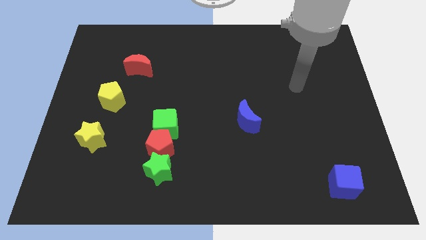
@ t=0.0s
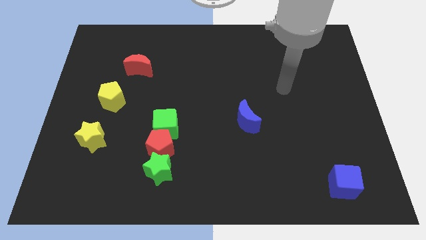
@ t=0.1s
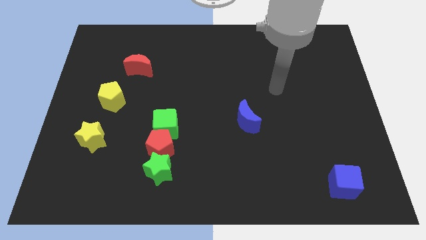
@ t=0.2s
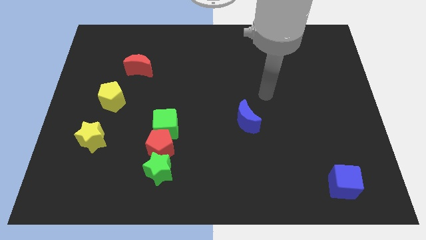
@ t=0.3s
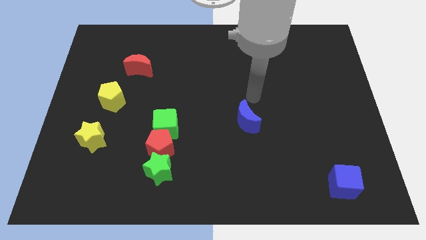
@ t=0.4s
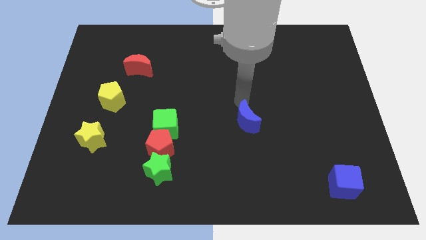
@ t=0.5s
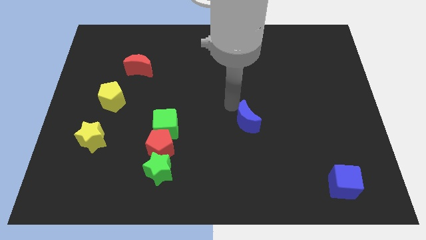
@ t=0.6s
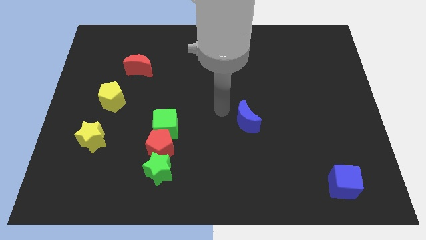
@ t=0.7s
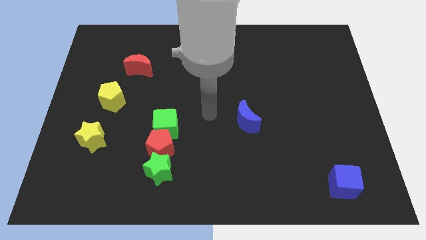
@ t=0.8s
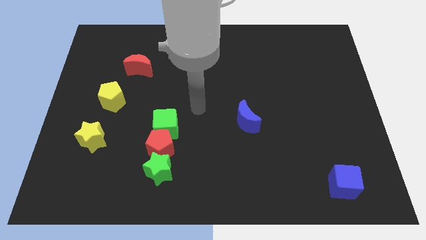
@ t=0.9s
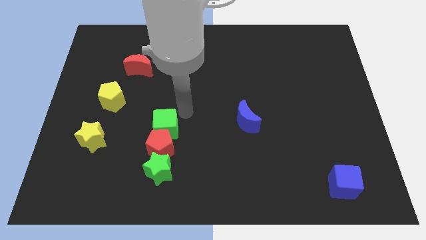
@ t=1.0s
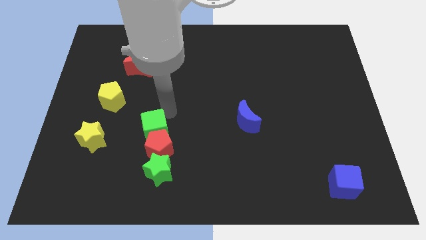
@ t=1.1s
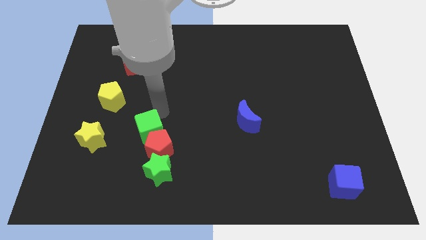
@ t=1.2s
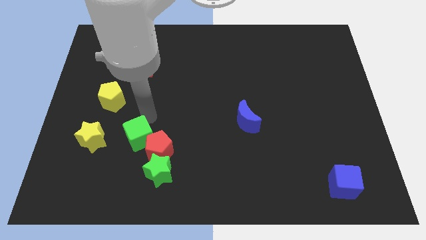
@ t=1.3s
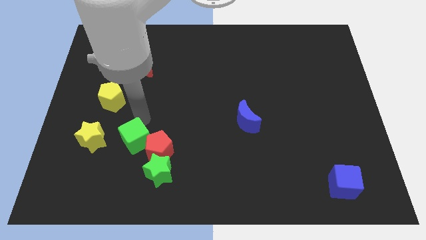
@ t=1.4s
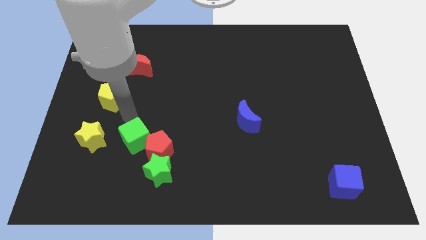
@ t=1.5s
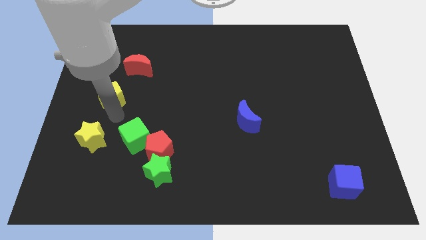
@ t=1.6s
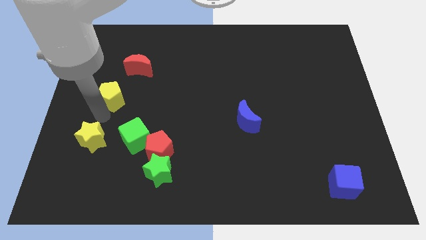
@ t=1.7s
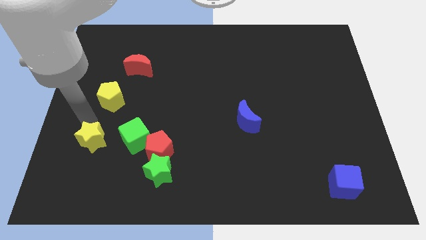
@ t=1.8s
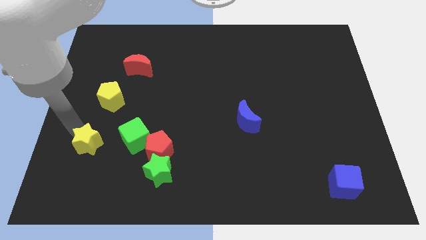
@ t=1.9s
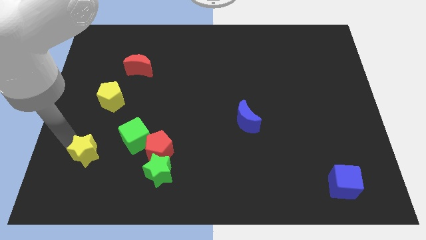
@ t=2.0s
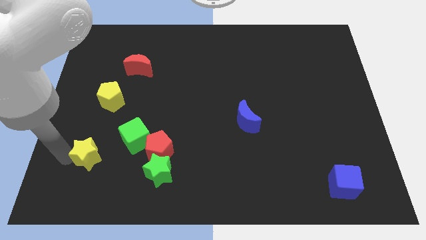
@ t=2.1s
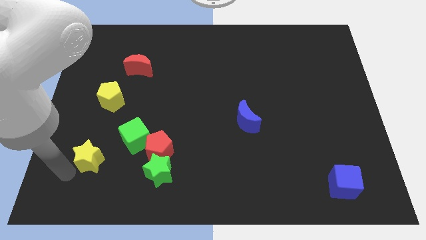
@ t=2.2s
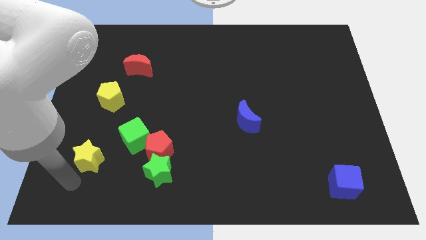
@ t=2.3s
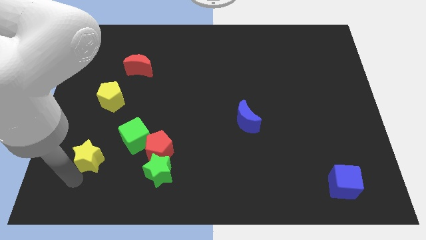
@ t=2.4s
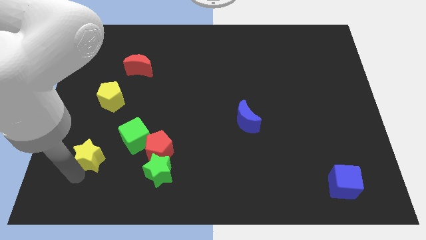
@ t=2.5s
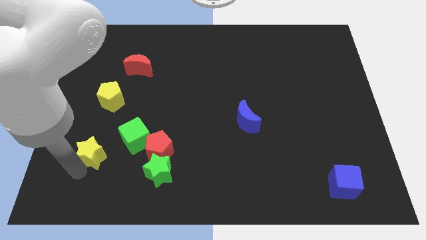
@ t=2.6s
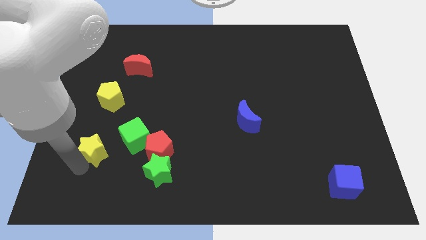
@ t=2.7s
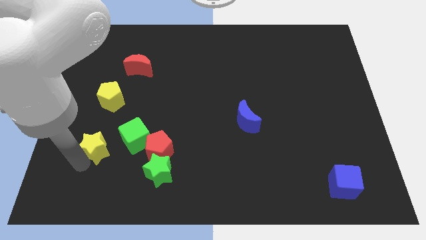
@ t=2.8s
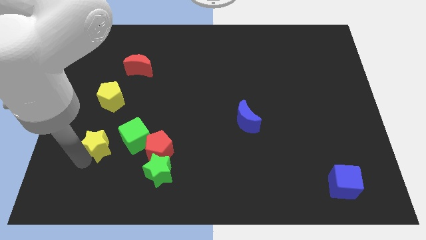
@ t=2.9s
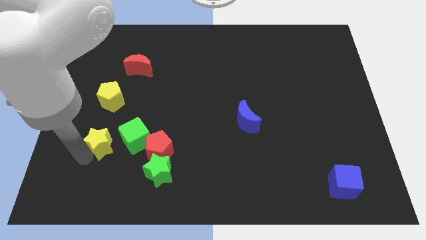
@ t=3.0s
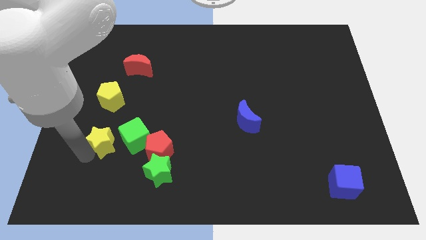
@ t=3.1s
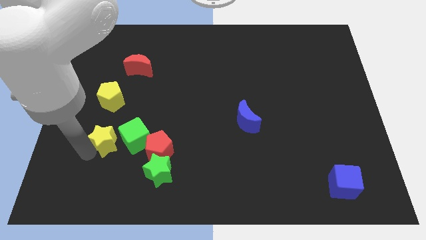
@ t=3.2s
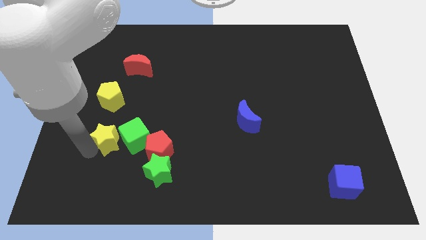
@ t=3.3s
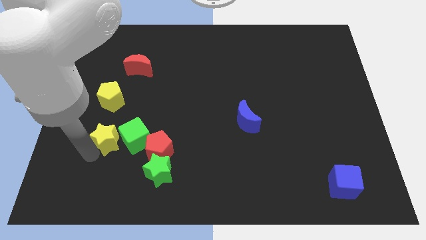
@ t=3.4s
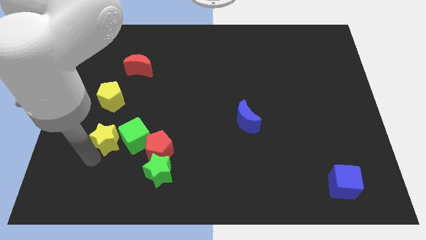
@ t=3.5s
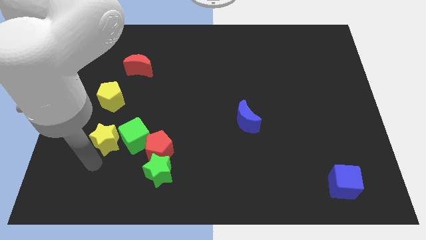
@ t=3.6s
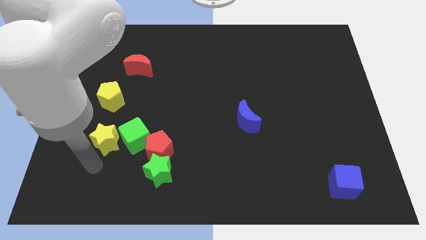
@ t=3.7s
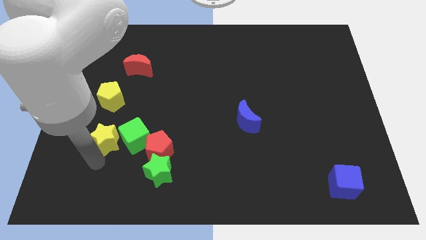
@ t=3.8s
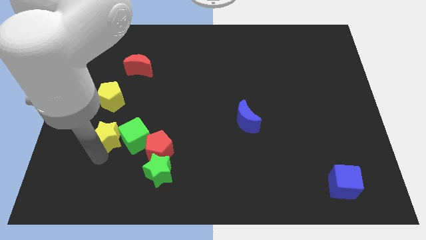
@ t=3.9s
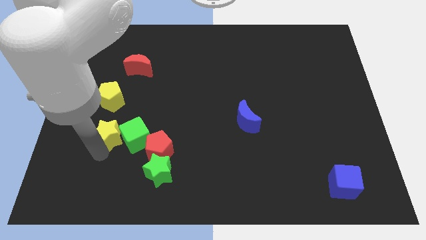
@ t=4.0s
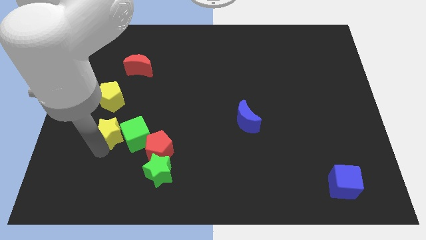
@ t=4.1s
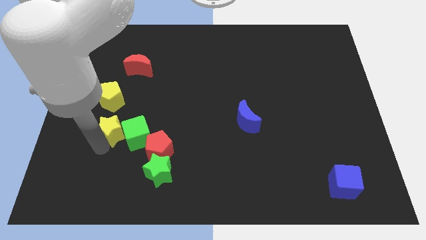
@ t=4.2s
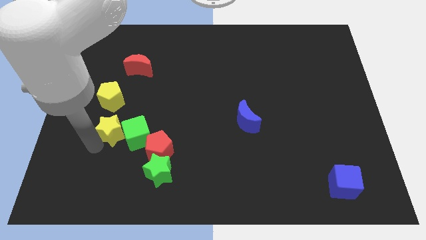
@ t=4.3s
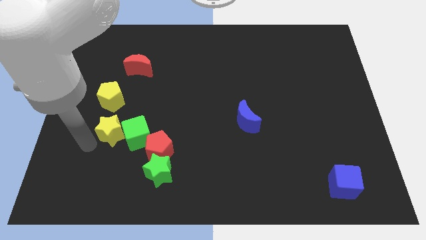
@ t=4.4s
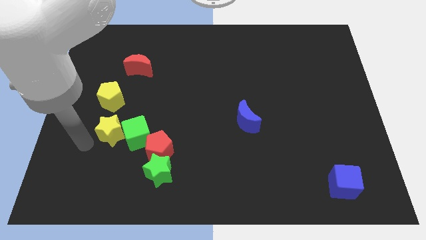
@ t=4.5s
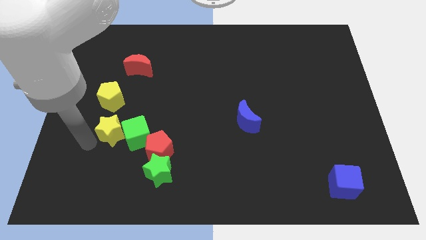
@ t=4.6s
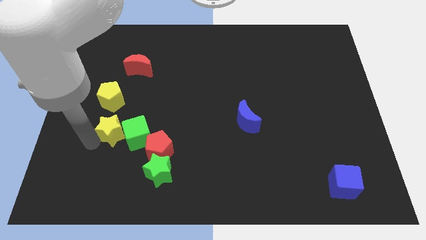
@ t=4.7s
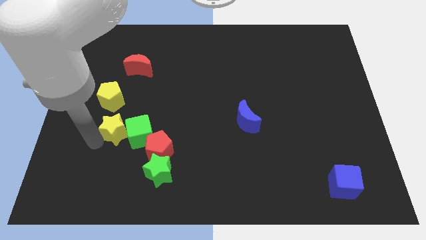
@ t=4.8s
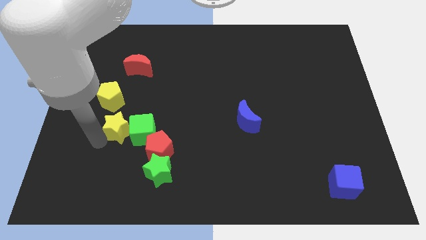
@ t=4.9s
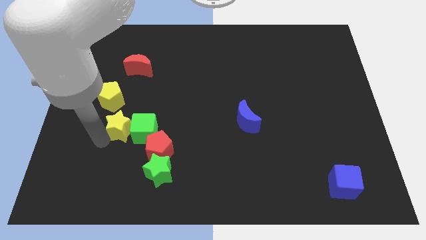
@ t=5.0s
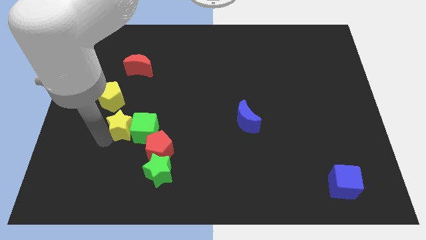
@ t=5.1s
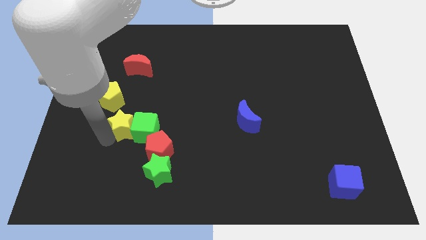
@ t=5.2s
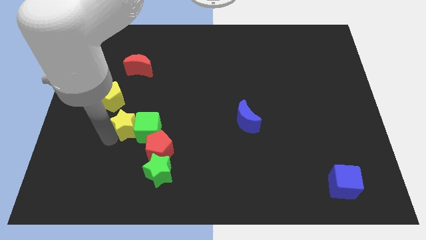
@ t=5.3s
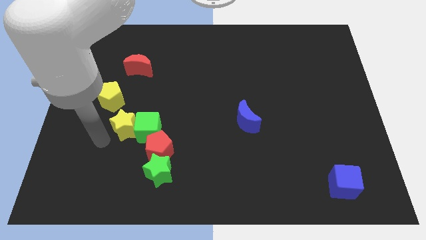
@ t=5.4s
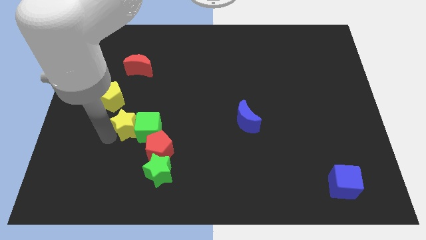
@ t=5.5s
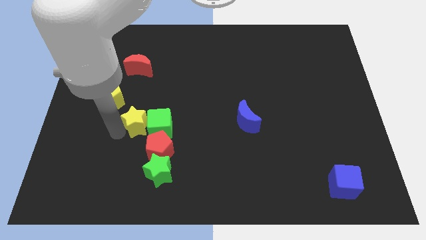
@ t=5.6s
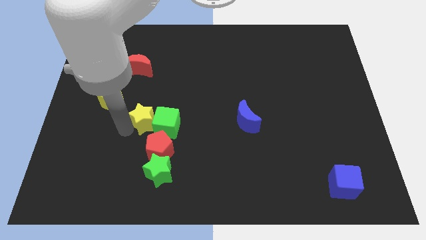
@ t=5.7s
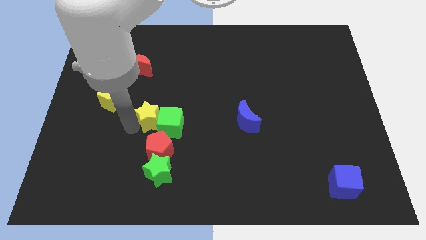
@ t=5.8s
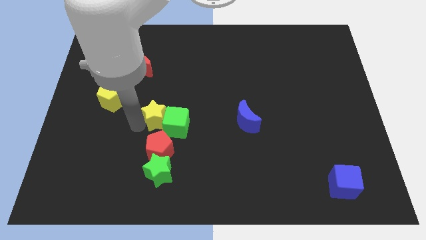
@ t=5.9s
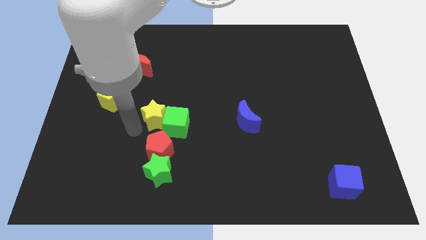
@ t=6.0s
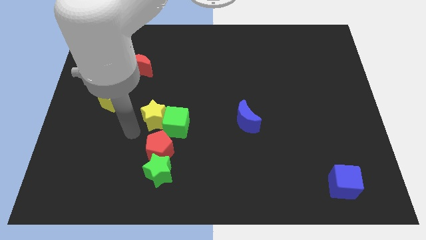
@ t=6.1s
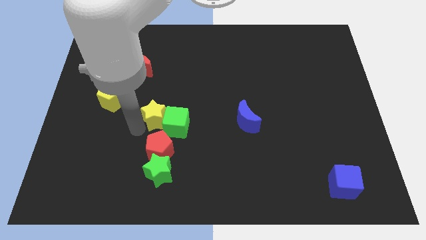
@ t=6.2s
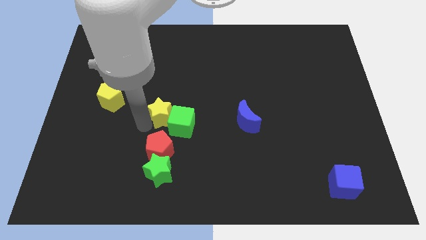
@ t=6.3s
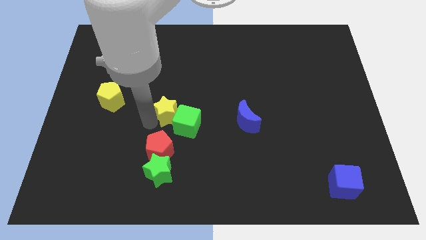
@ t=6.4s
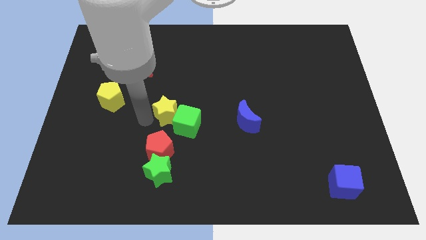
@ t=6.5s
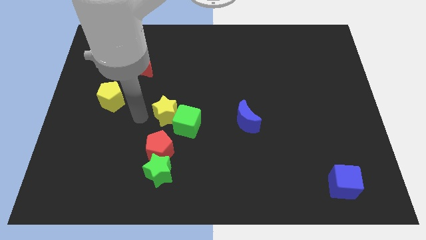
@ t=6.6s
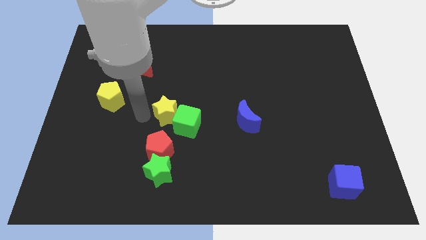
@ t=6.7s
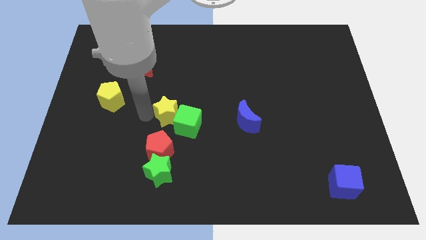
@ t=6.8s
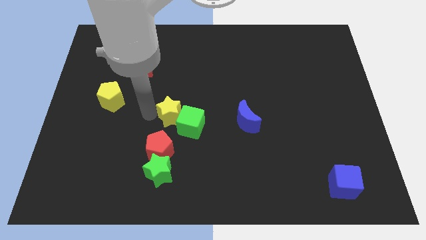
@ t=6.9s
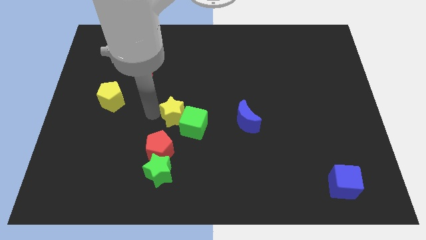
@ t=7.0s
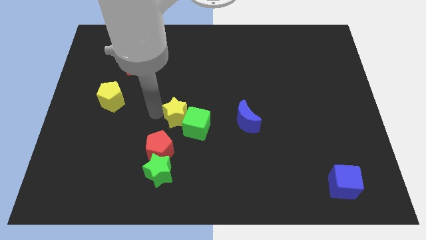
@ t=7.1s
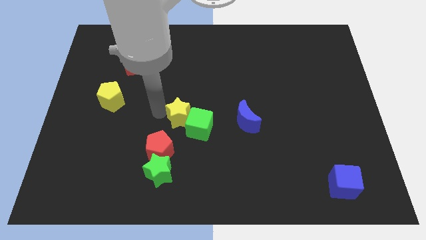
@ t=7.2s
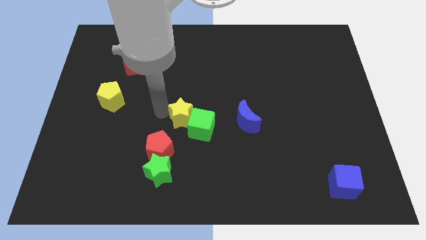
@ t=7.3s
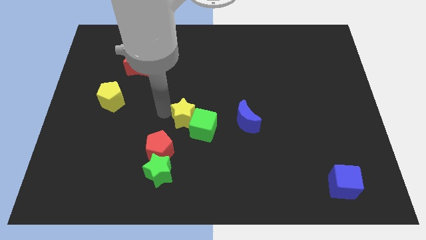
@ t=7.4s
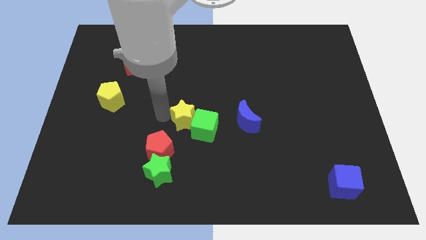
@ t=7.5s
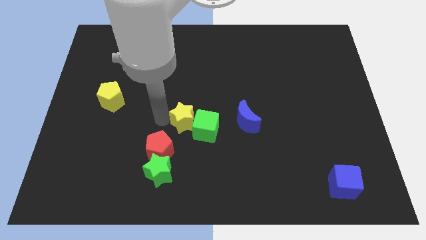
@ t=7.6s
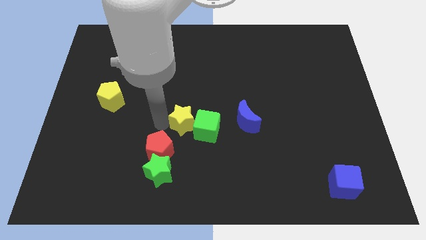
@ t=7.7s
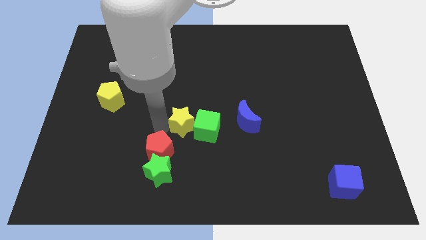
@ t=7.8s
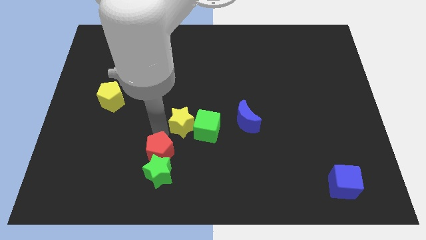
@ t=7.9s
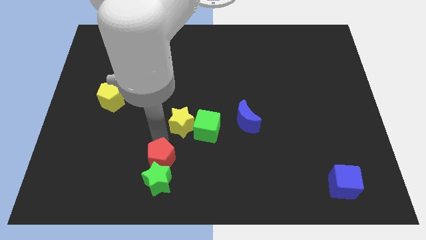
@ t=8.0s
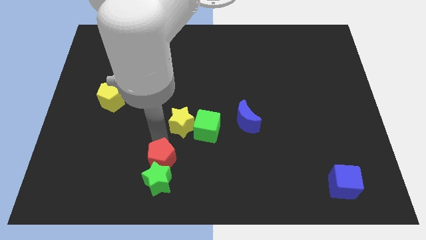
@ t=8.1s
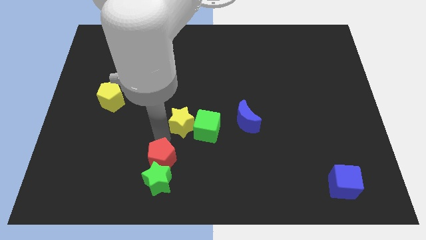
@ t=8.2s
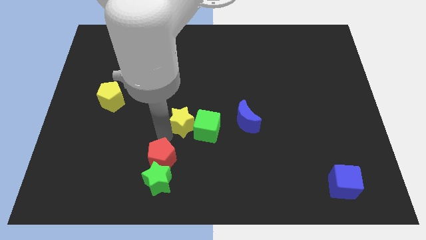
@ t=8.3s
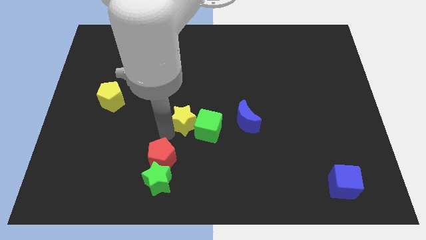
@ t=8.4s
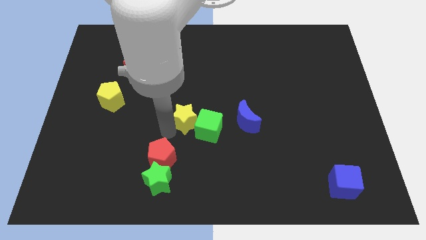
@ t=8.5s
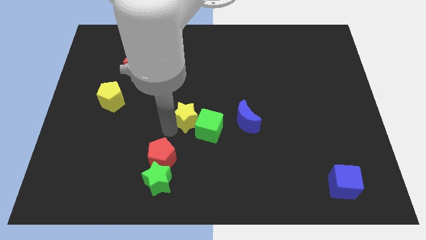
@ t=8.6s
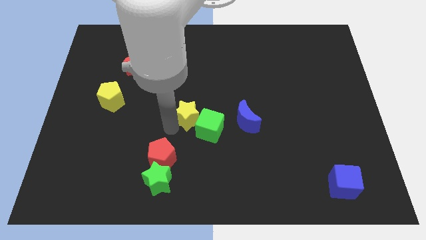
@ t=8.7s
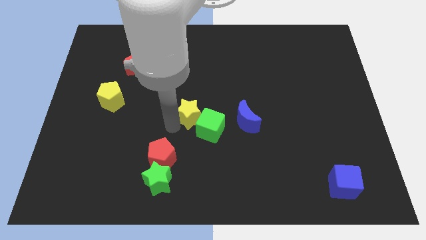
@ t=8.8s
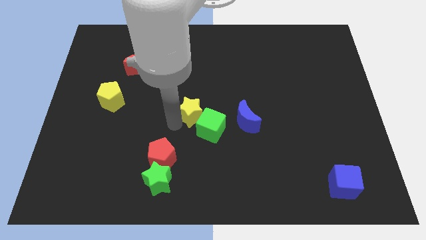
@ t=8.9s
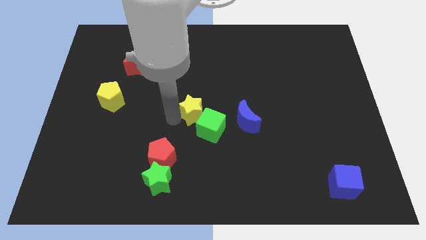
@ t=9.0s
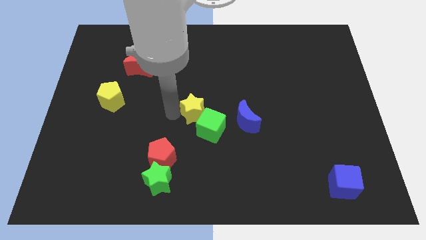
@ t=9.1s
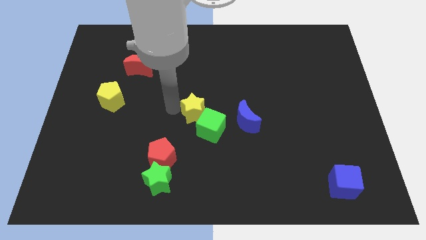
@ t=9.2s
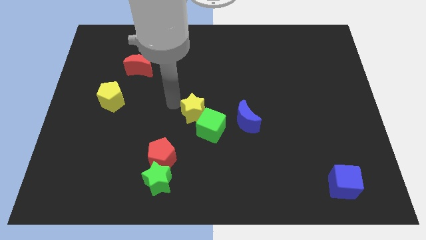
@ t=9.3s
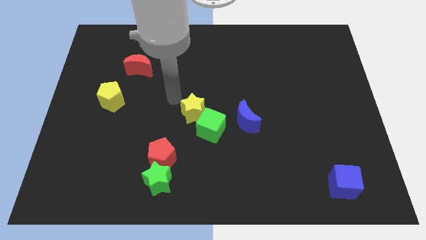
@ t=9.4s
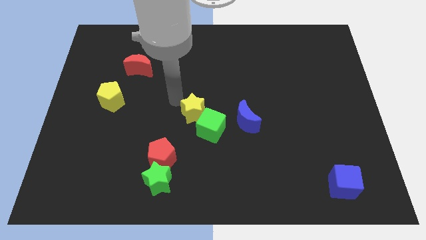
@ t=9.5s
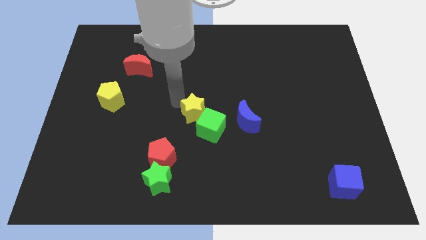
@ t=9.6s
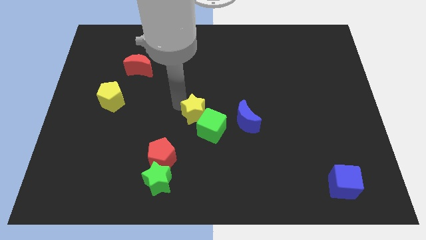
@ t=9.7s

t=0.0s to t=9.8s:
move the yellow star to the right
